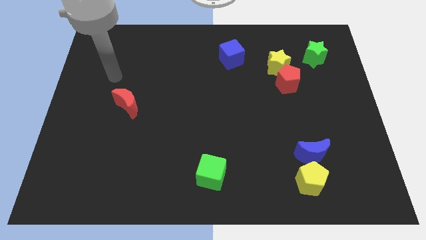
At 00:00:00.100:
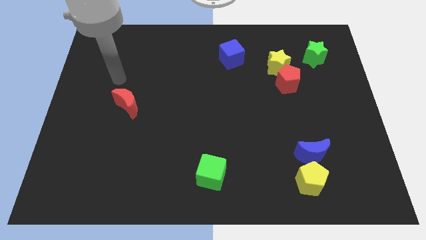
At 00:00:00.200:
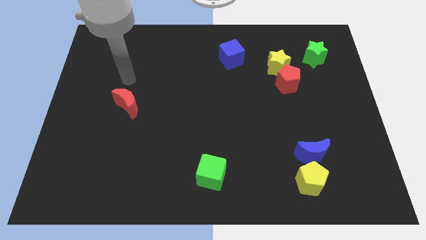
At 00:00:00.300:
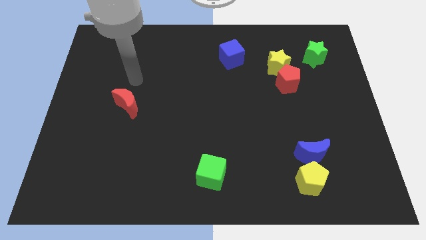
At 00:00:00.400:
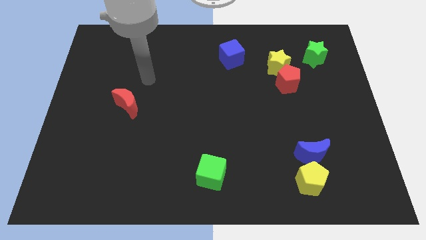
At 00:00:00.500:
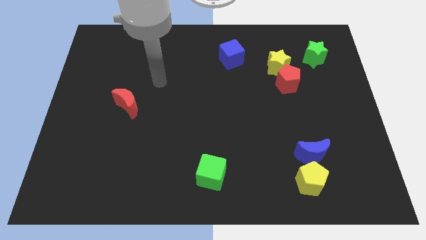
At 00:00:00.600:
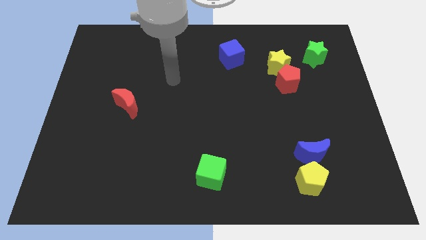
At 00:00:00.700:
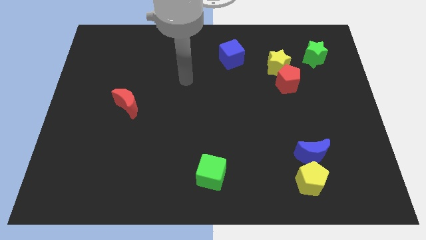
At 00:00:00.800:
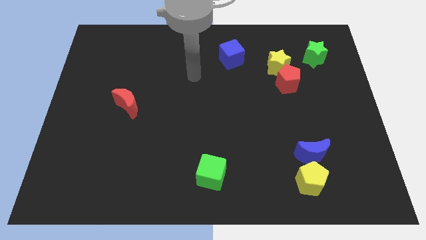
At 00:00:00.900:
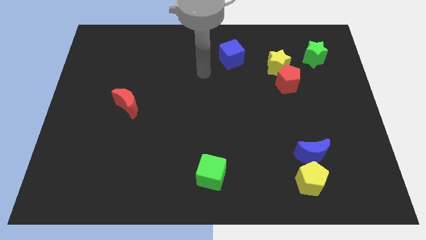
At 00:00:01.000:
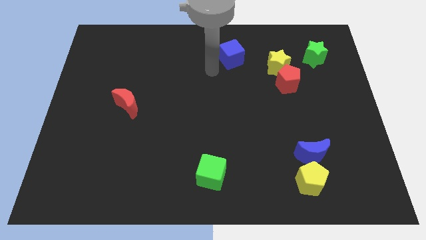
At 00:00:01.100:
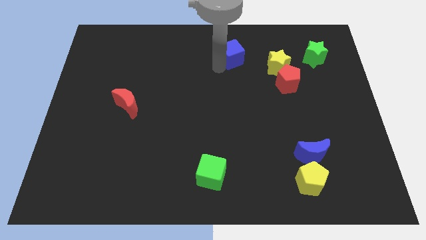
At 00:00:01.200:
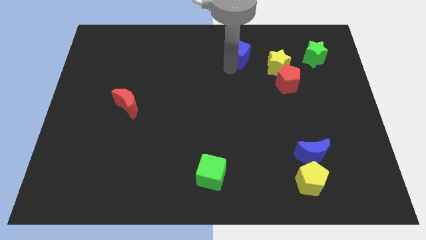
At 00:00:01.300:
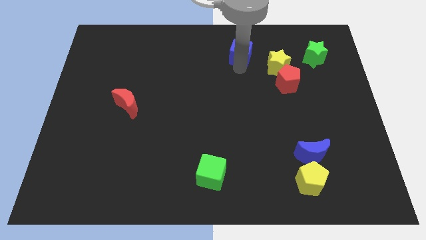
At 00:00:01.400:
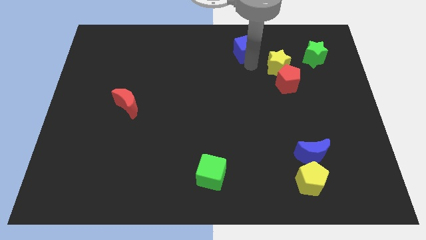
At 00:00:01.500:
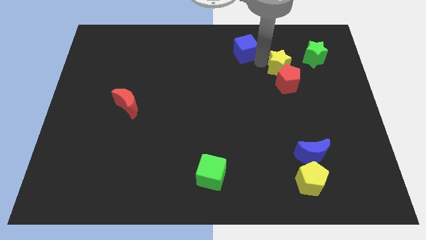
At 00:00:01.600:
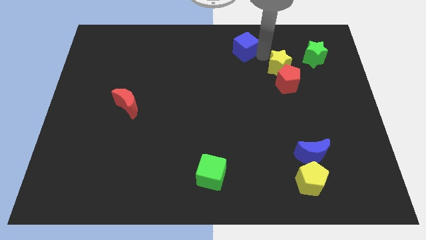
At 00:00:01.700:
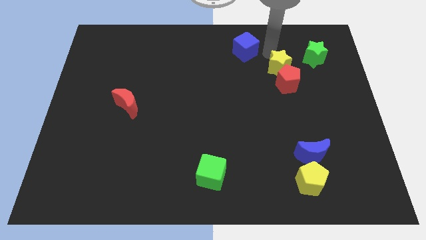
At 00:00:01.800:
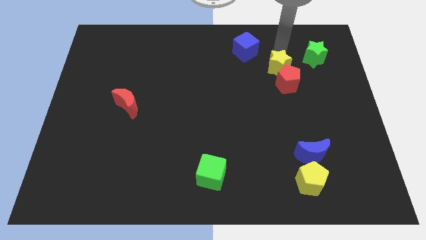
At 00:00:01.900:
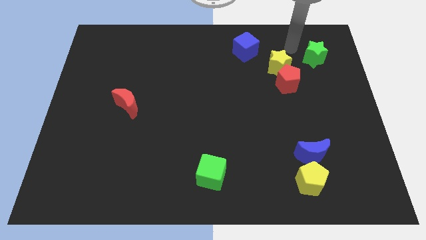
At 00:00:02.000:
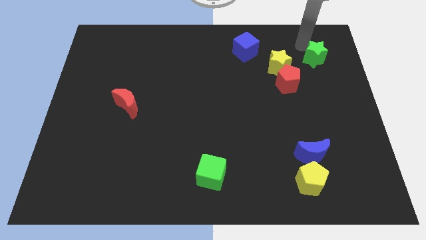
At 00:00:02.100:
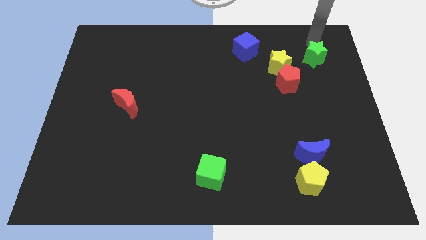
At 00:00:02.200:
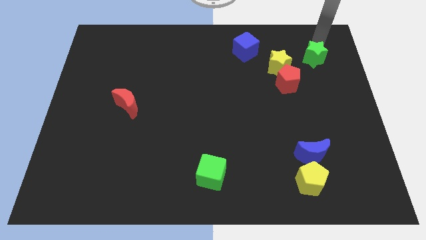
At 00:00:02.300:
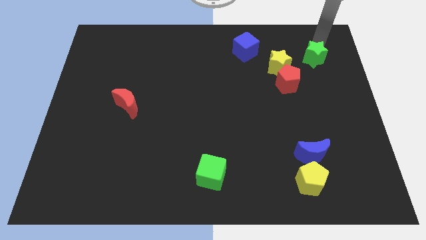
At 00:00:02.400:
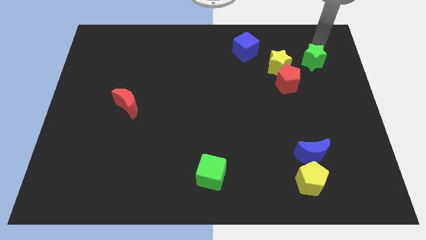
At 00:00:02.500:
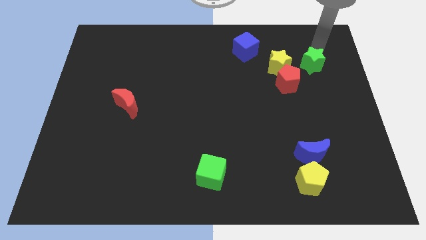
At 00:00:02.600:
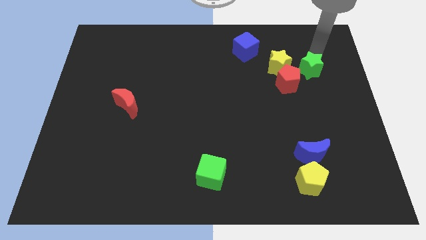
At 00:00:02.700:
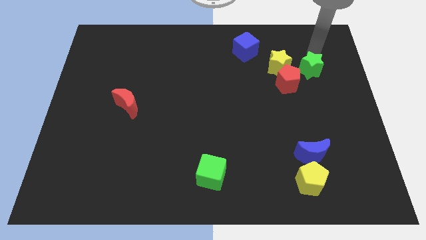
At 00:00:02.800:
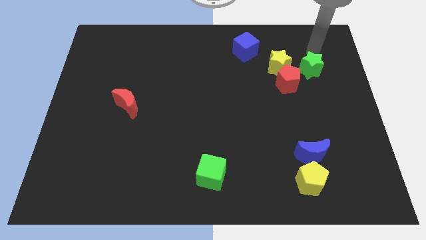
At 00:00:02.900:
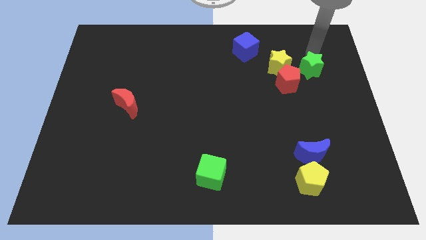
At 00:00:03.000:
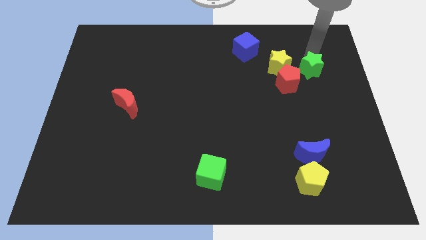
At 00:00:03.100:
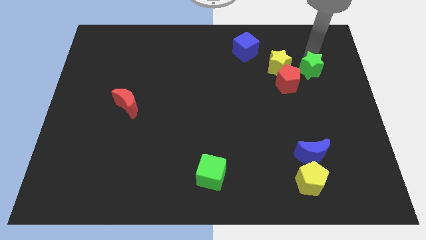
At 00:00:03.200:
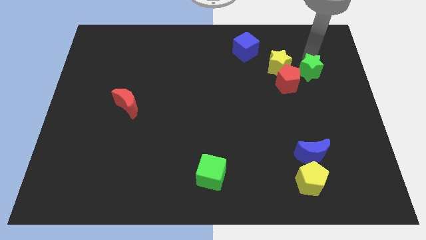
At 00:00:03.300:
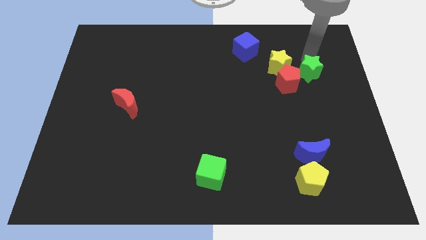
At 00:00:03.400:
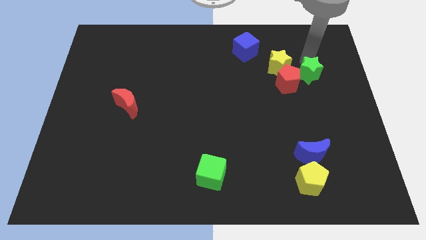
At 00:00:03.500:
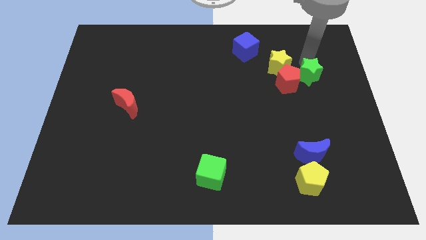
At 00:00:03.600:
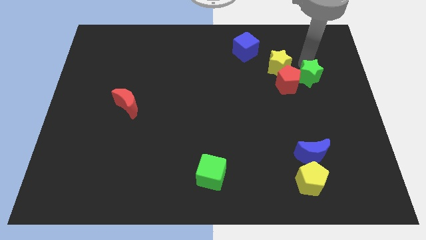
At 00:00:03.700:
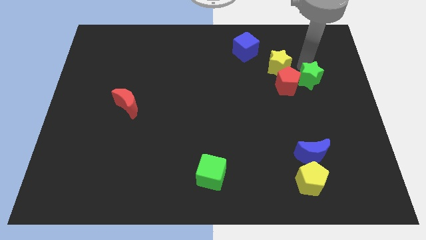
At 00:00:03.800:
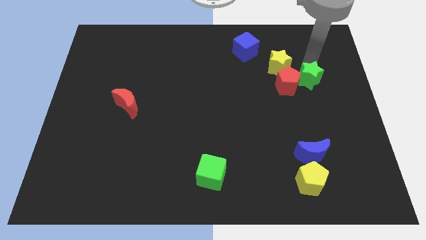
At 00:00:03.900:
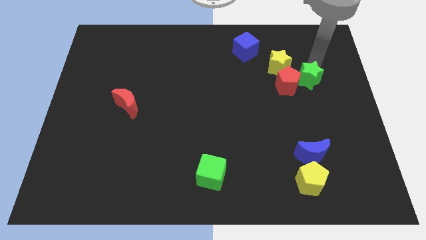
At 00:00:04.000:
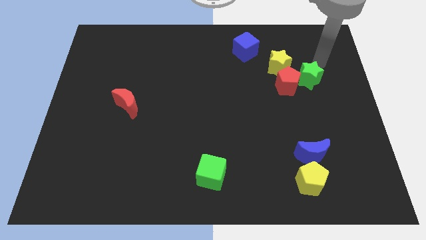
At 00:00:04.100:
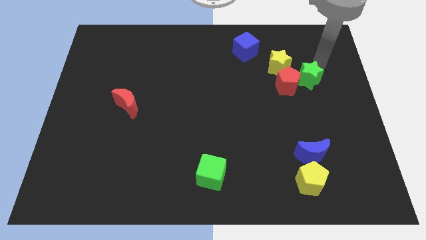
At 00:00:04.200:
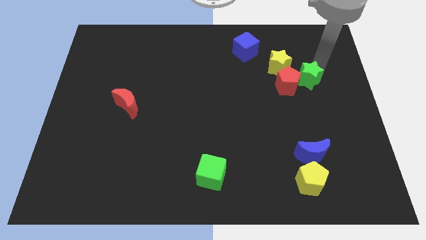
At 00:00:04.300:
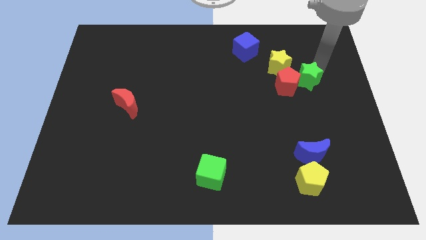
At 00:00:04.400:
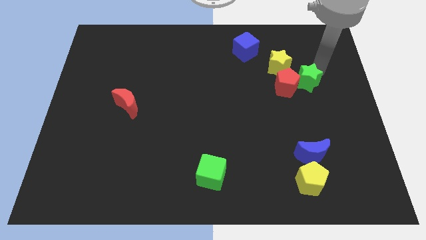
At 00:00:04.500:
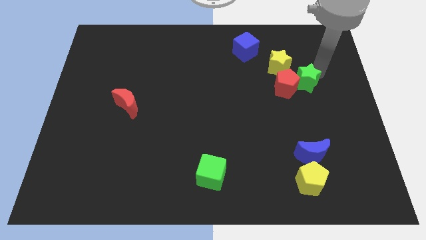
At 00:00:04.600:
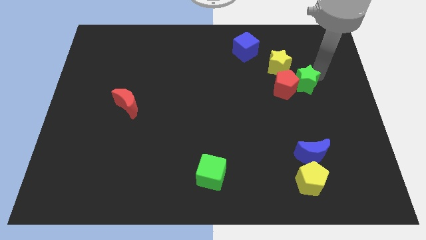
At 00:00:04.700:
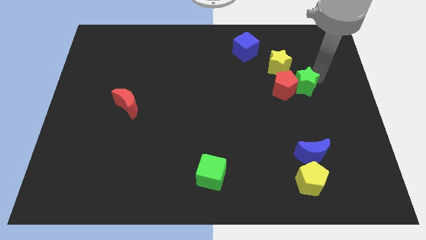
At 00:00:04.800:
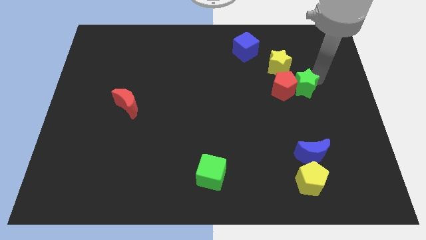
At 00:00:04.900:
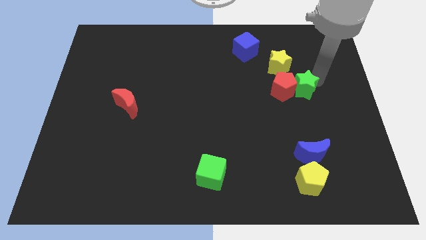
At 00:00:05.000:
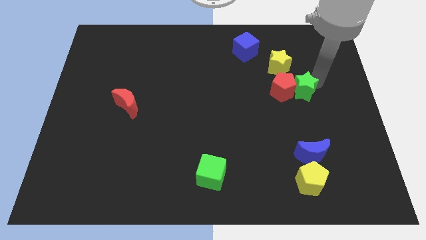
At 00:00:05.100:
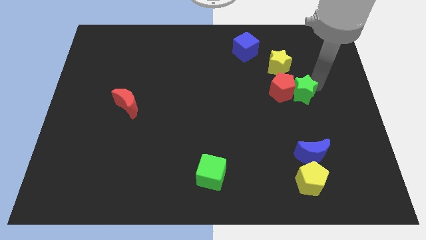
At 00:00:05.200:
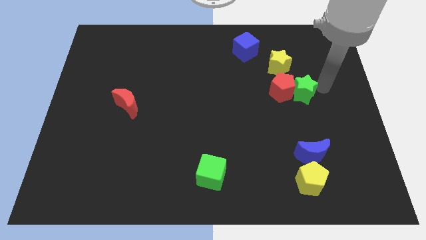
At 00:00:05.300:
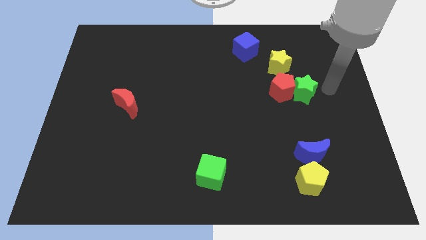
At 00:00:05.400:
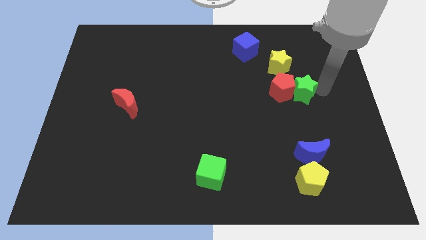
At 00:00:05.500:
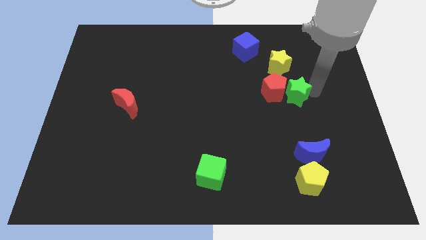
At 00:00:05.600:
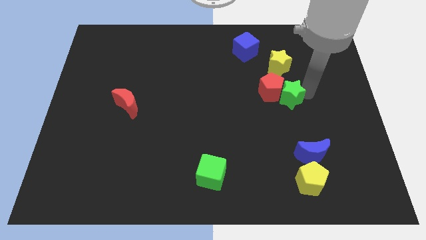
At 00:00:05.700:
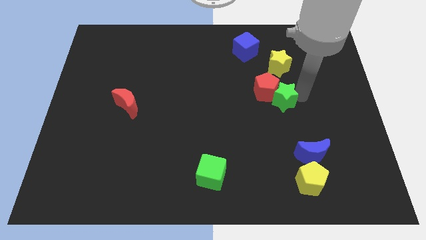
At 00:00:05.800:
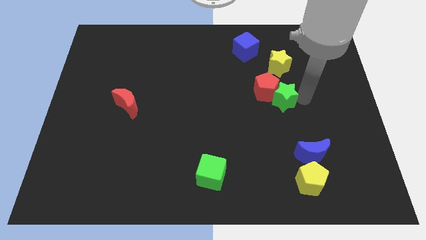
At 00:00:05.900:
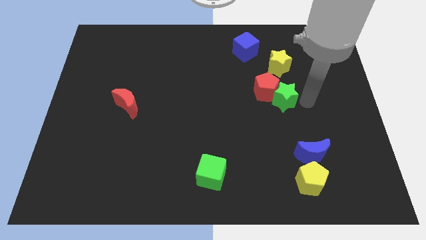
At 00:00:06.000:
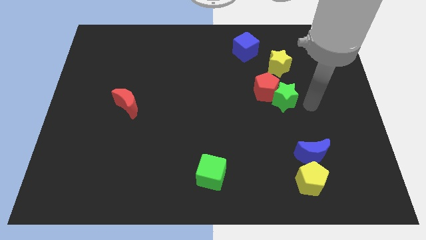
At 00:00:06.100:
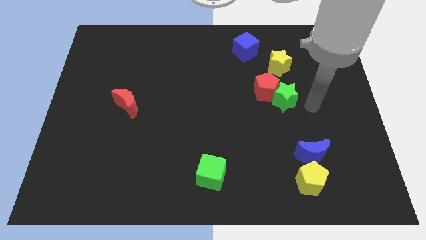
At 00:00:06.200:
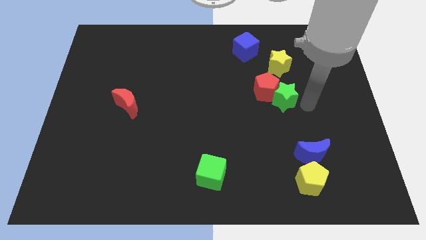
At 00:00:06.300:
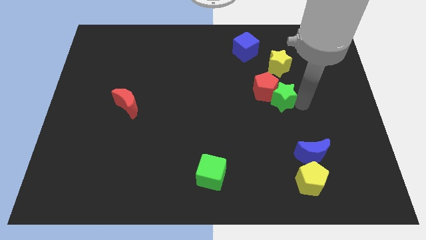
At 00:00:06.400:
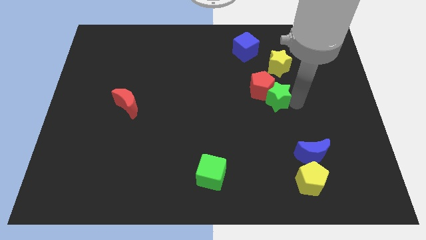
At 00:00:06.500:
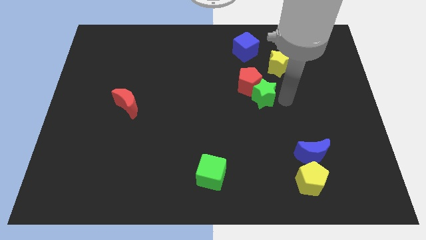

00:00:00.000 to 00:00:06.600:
move the green star to the center
